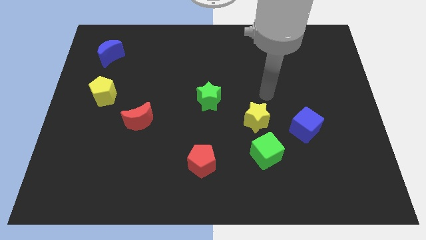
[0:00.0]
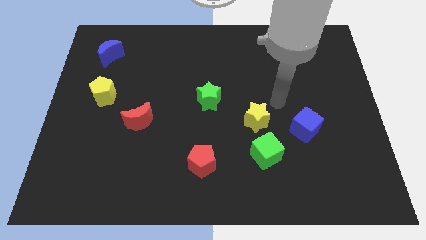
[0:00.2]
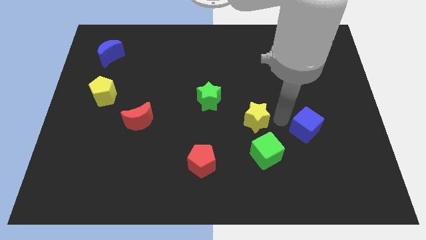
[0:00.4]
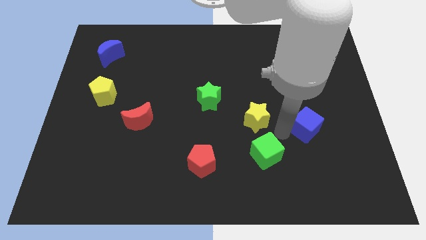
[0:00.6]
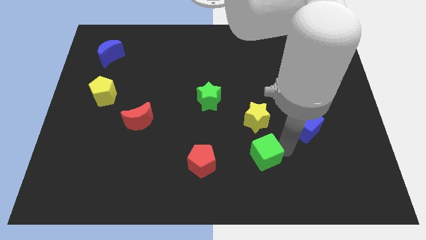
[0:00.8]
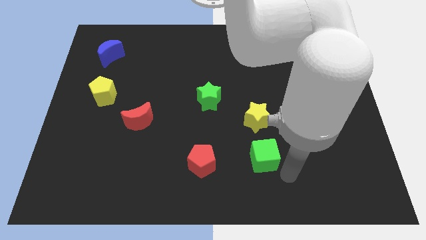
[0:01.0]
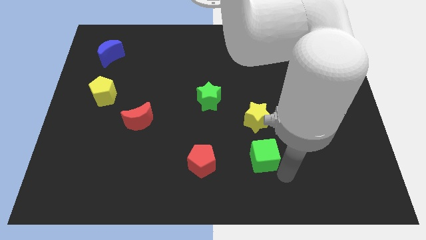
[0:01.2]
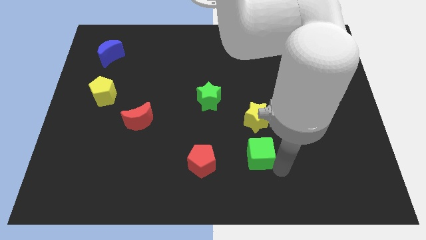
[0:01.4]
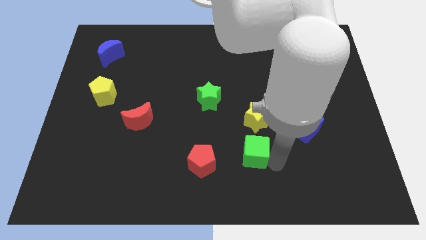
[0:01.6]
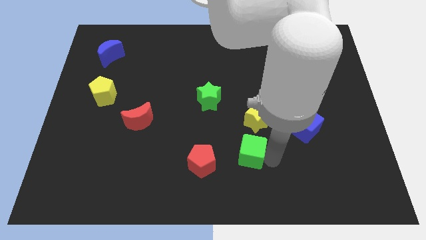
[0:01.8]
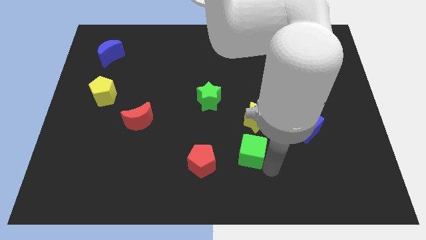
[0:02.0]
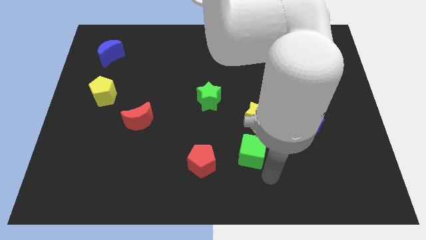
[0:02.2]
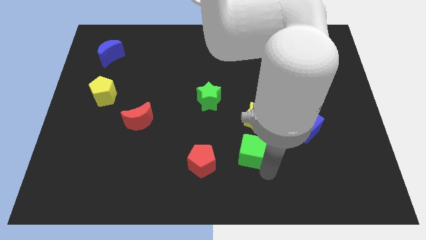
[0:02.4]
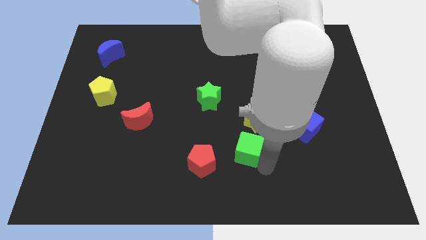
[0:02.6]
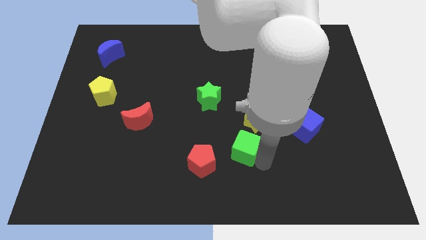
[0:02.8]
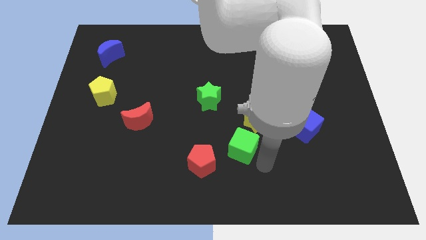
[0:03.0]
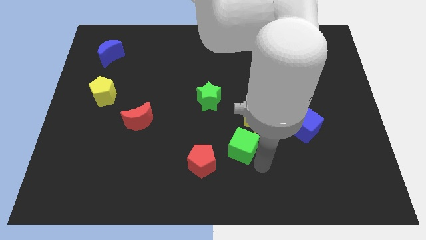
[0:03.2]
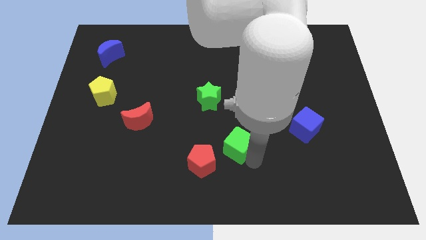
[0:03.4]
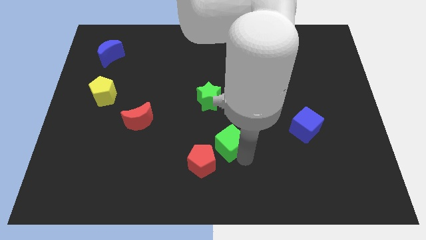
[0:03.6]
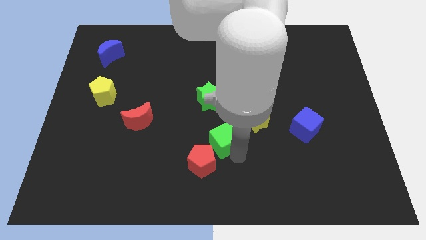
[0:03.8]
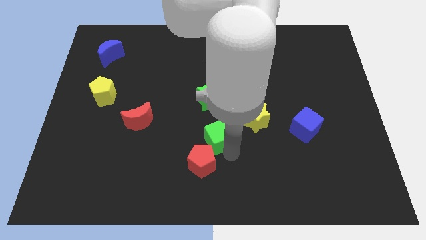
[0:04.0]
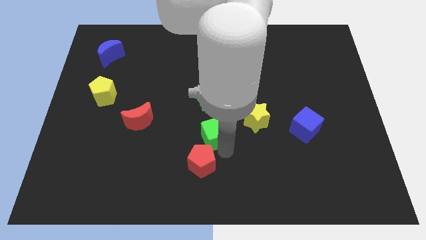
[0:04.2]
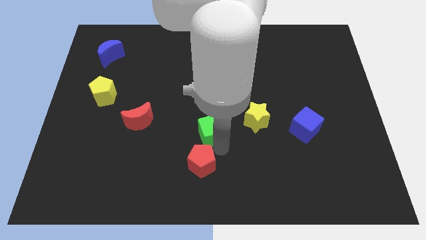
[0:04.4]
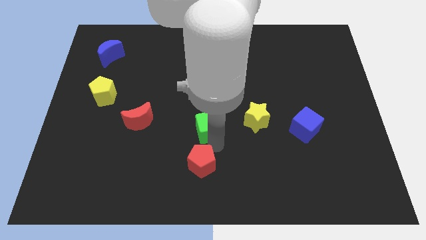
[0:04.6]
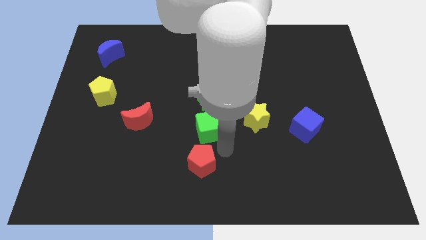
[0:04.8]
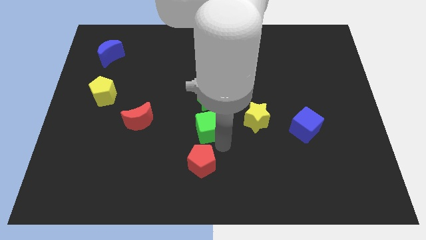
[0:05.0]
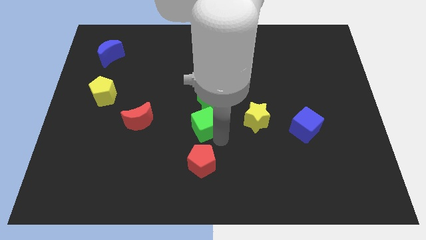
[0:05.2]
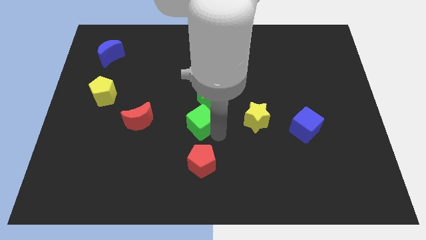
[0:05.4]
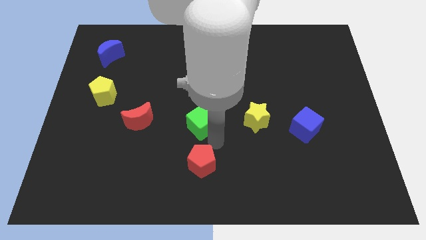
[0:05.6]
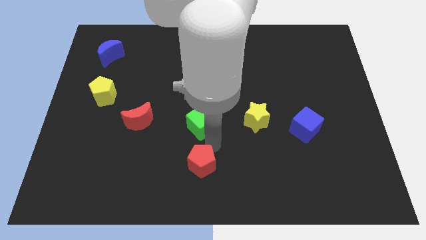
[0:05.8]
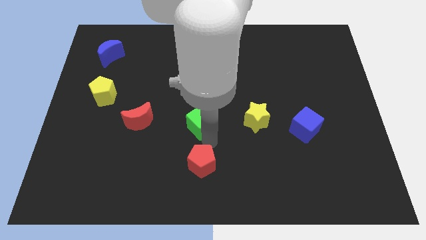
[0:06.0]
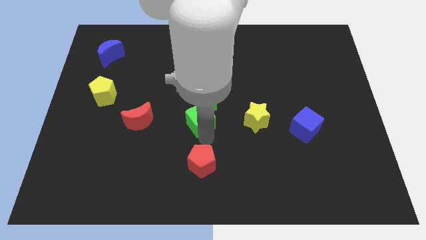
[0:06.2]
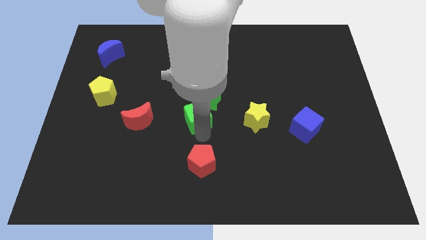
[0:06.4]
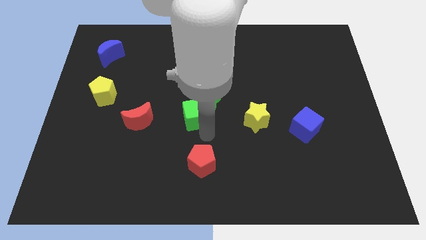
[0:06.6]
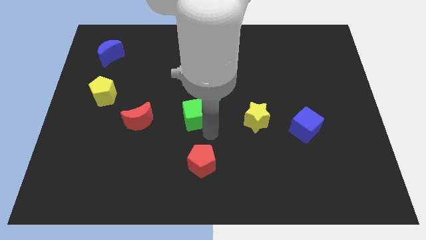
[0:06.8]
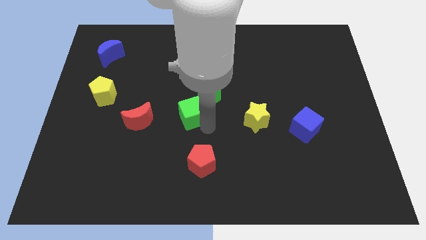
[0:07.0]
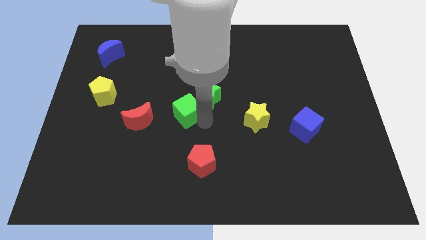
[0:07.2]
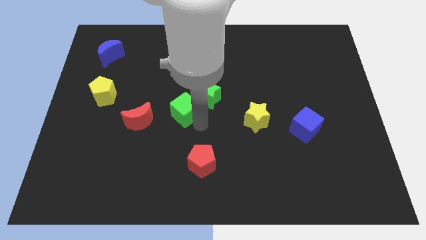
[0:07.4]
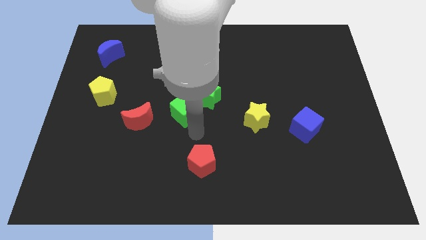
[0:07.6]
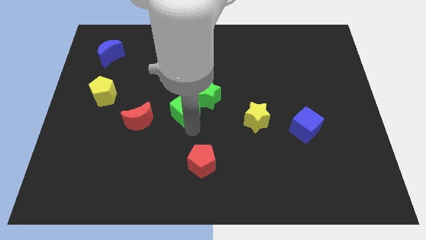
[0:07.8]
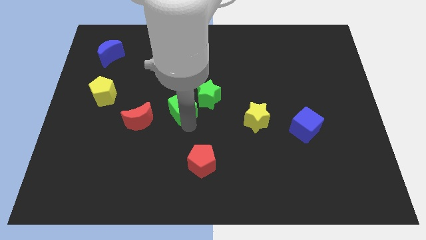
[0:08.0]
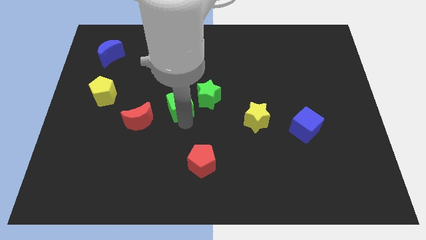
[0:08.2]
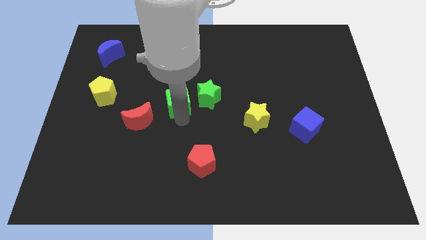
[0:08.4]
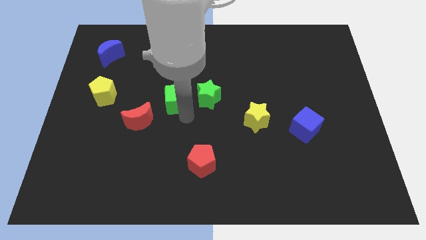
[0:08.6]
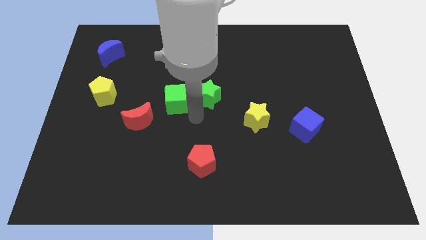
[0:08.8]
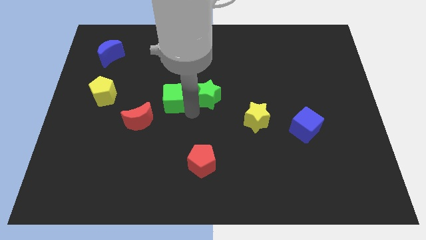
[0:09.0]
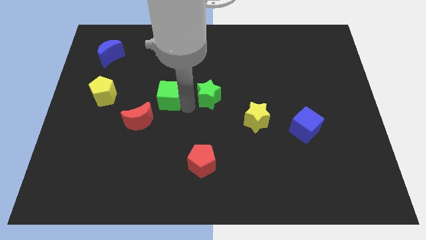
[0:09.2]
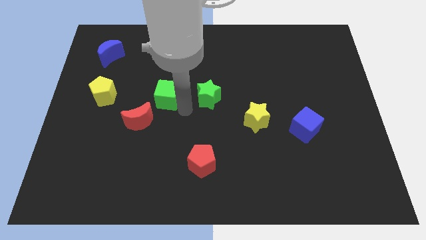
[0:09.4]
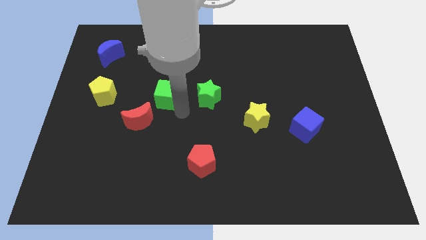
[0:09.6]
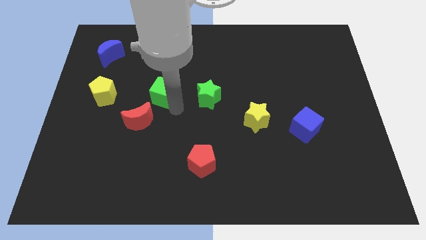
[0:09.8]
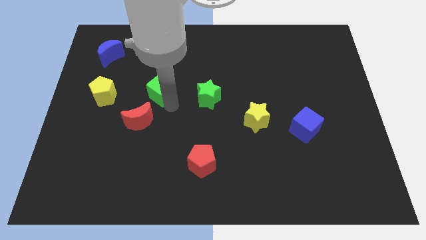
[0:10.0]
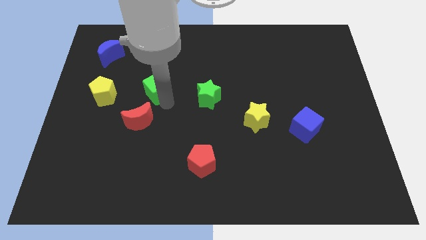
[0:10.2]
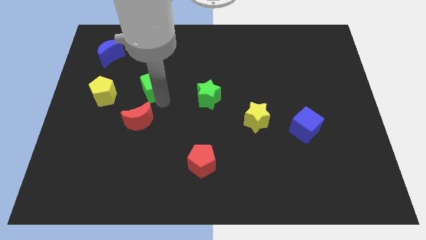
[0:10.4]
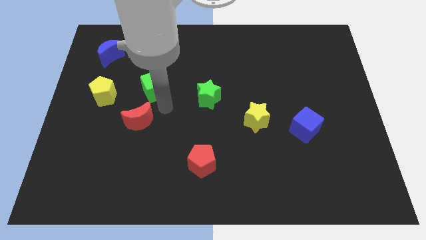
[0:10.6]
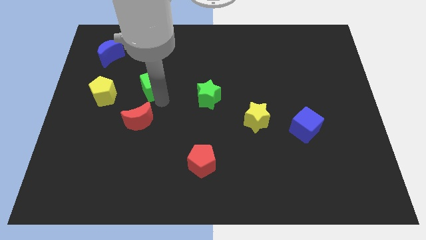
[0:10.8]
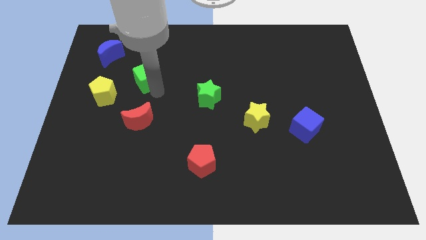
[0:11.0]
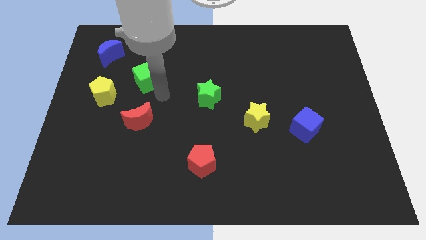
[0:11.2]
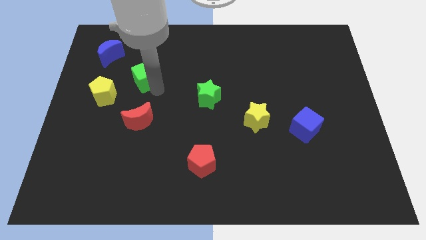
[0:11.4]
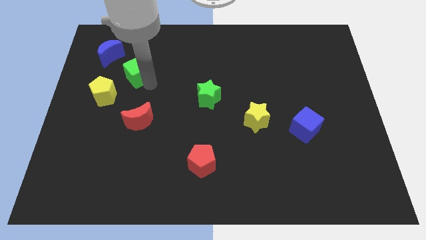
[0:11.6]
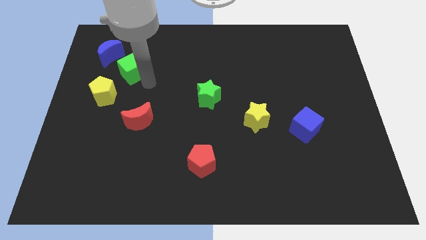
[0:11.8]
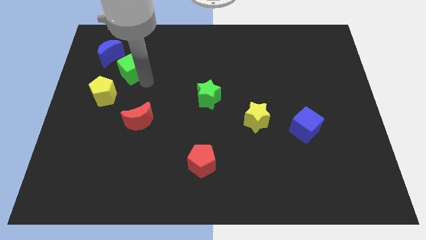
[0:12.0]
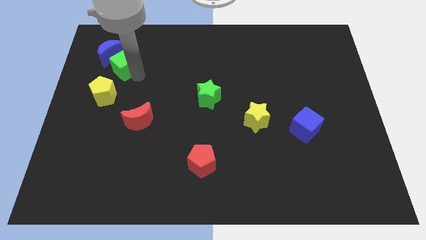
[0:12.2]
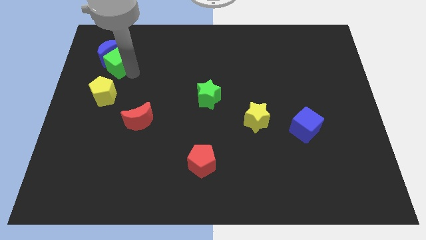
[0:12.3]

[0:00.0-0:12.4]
slide the green cube towards the blue moon

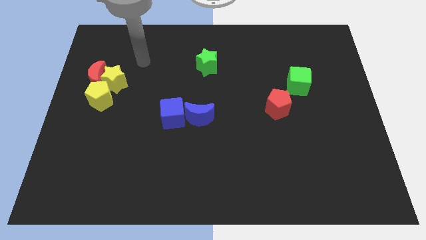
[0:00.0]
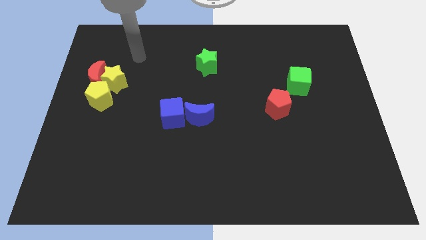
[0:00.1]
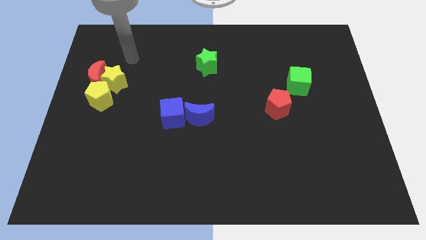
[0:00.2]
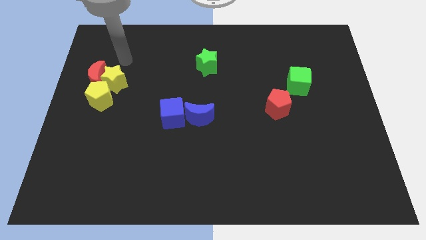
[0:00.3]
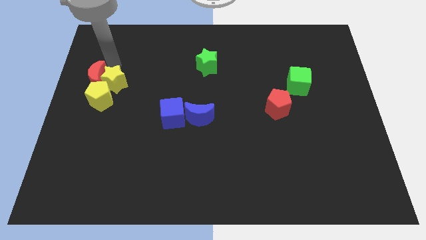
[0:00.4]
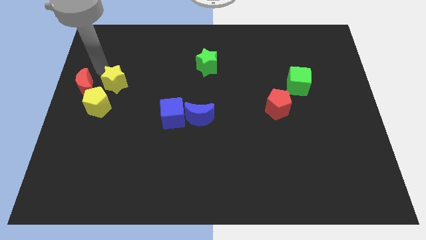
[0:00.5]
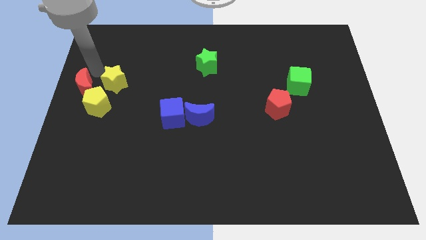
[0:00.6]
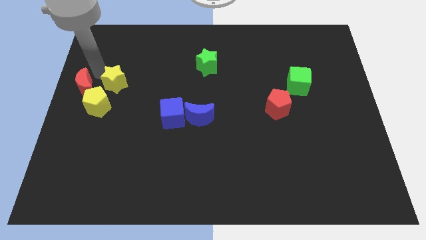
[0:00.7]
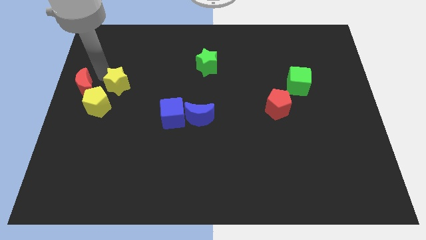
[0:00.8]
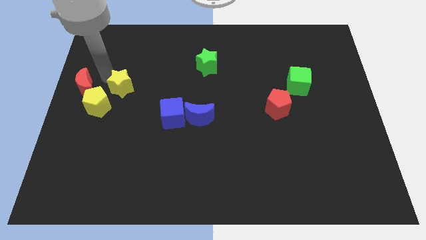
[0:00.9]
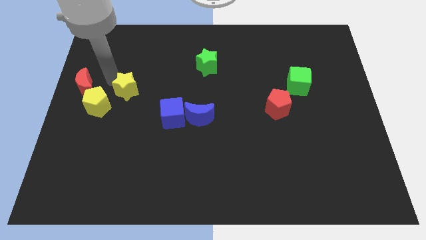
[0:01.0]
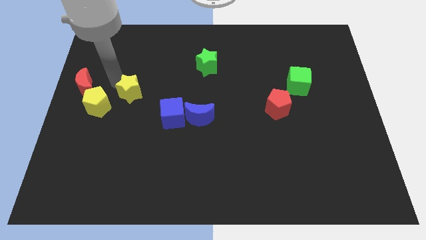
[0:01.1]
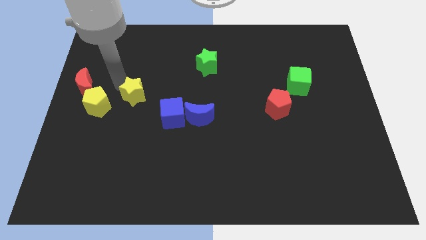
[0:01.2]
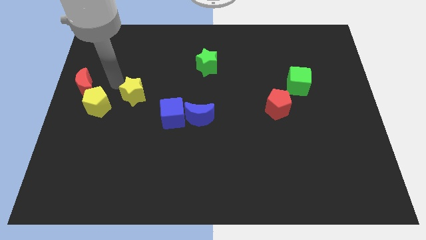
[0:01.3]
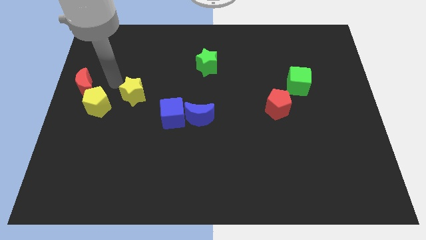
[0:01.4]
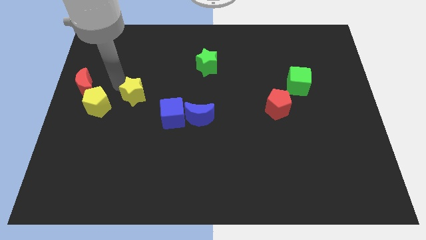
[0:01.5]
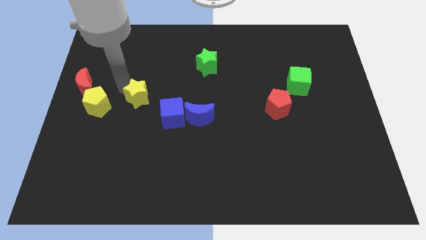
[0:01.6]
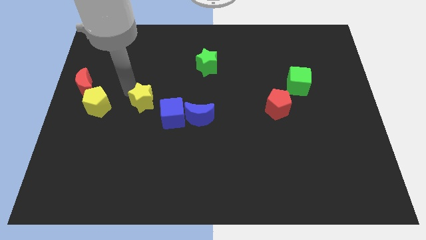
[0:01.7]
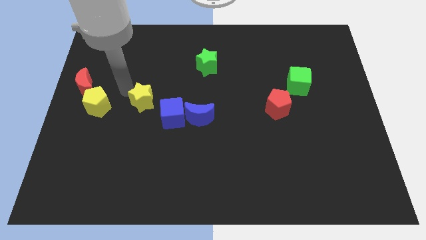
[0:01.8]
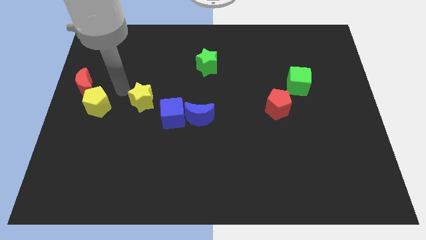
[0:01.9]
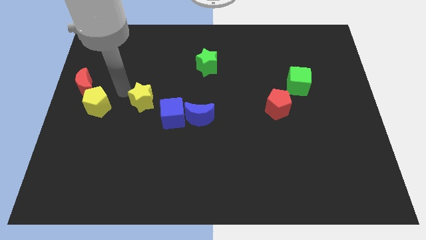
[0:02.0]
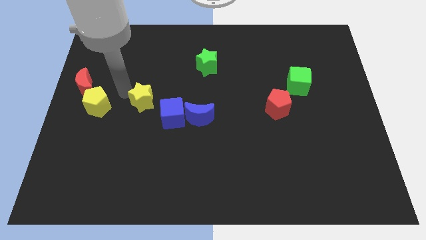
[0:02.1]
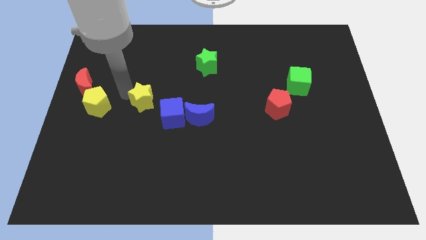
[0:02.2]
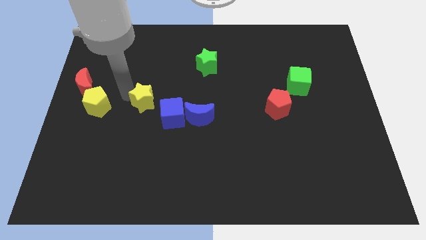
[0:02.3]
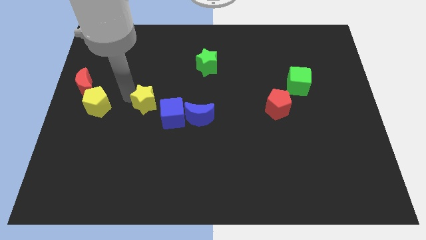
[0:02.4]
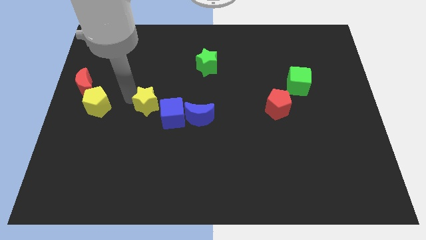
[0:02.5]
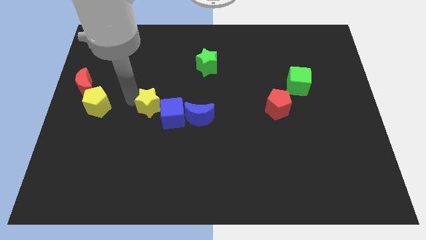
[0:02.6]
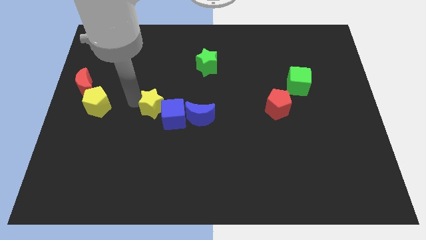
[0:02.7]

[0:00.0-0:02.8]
push the yellow star towards the blue cube
